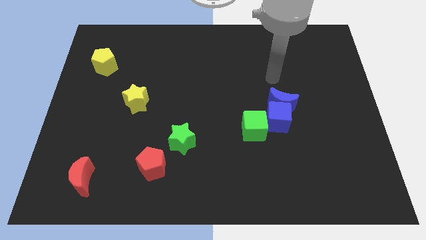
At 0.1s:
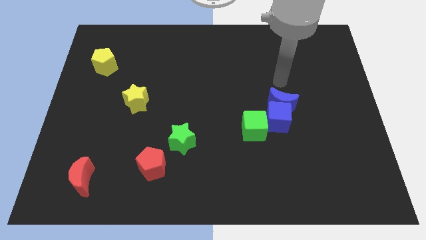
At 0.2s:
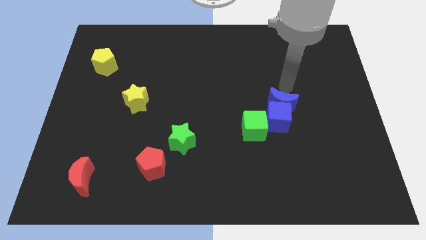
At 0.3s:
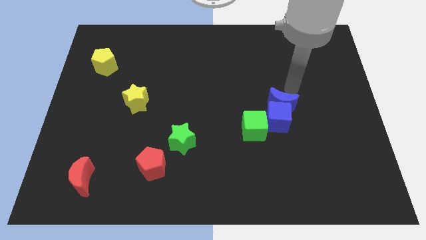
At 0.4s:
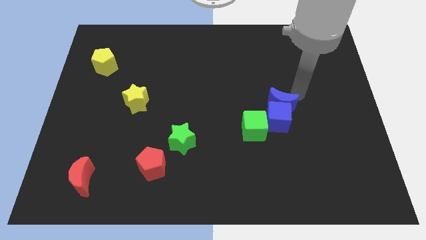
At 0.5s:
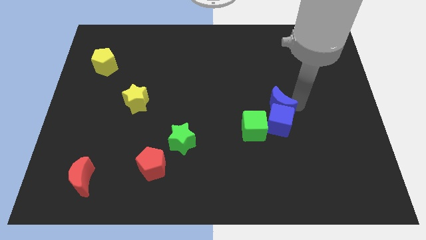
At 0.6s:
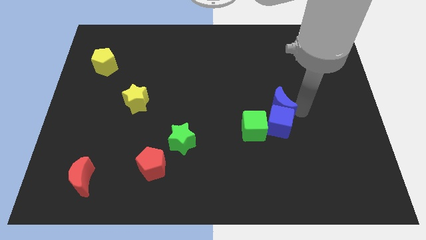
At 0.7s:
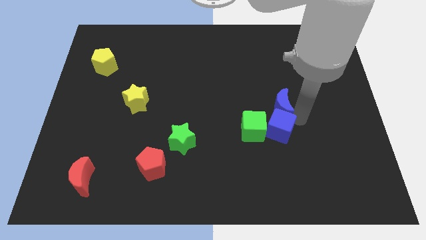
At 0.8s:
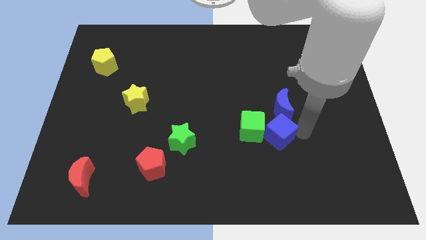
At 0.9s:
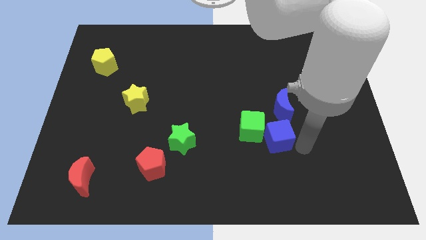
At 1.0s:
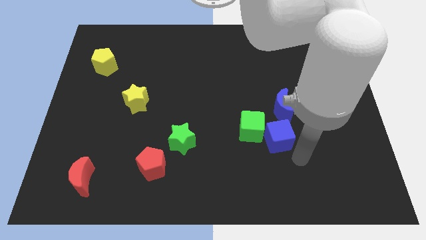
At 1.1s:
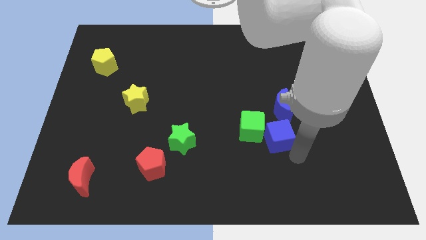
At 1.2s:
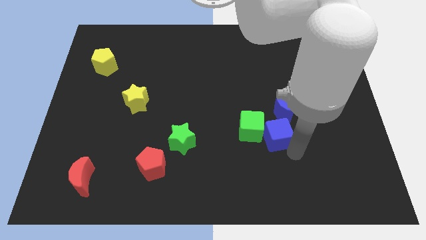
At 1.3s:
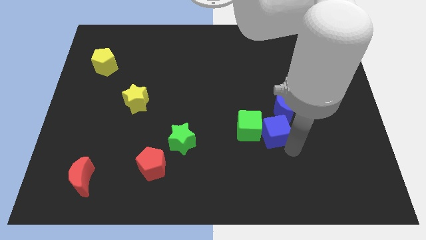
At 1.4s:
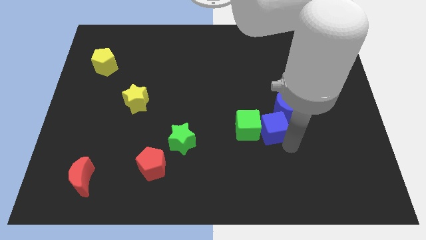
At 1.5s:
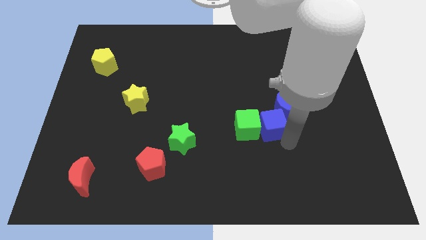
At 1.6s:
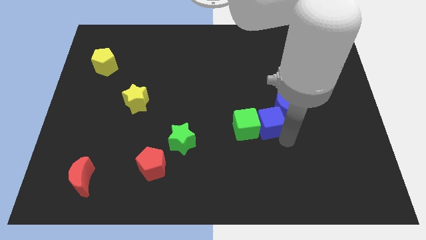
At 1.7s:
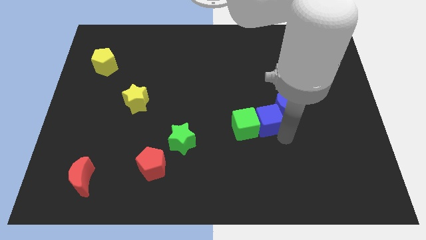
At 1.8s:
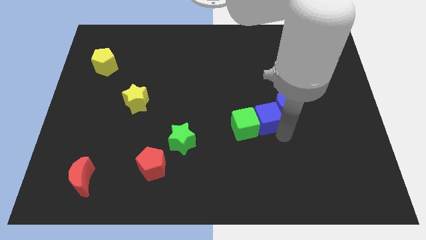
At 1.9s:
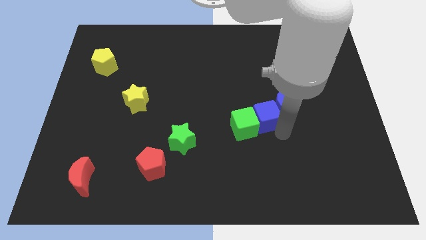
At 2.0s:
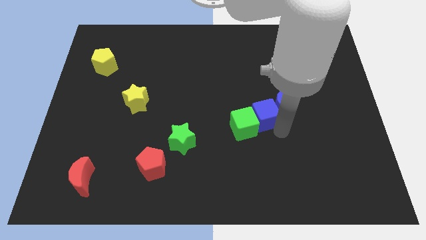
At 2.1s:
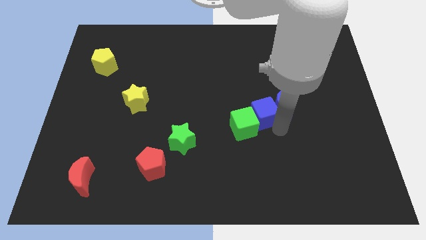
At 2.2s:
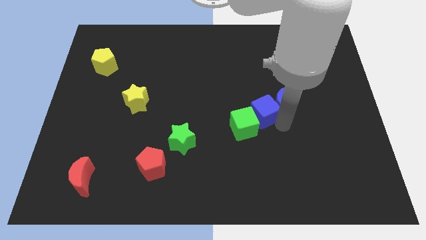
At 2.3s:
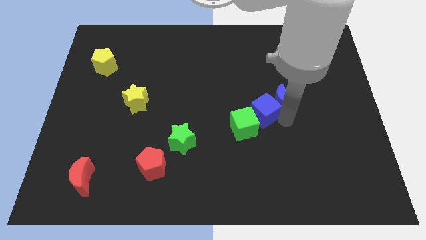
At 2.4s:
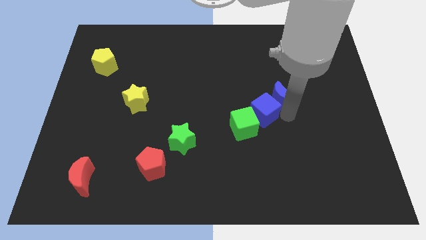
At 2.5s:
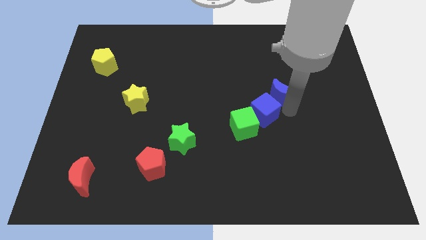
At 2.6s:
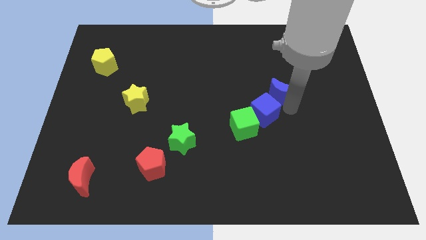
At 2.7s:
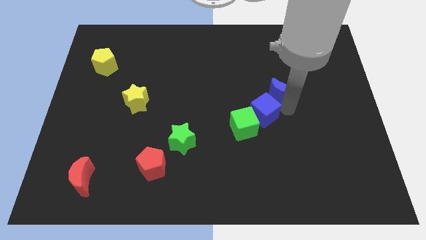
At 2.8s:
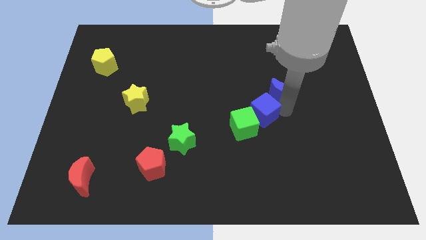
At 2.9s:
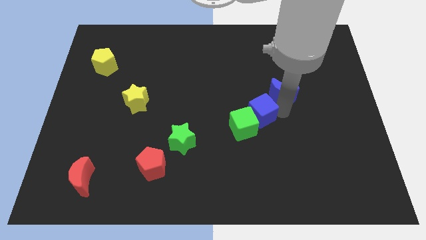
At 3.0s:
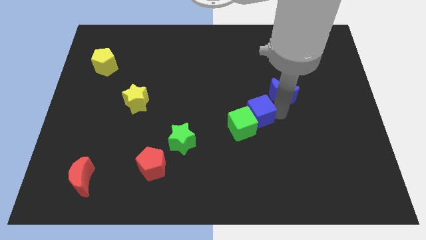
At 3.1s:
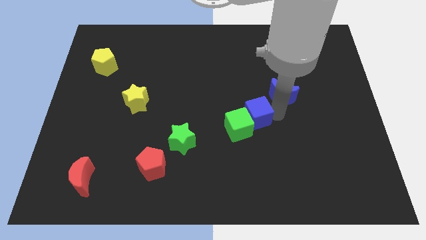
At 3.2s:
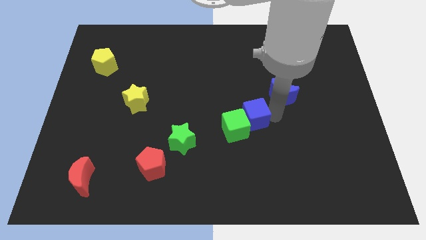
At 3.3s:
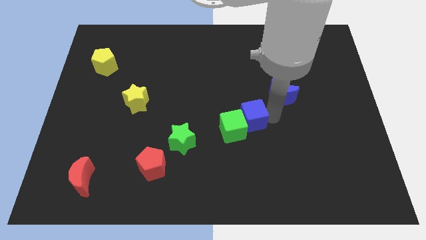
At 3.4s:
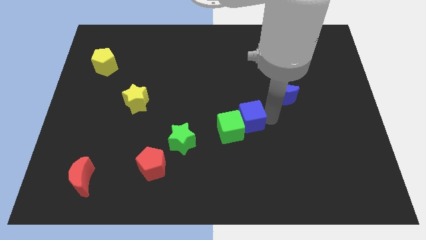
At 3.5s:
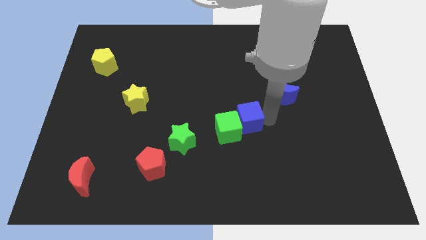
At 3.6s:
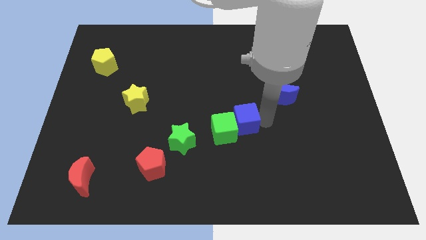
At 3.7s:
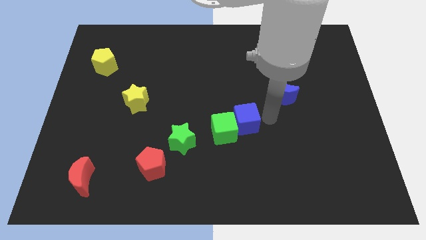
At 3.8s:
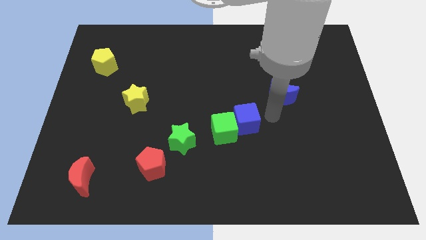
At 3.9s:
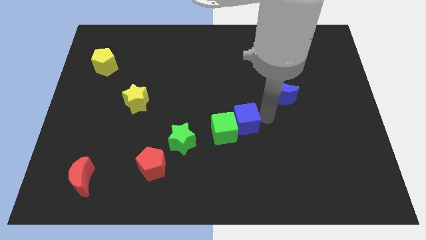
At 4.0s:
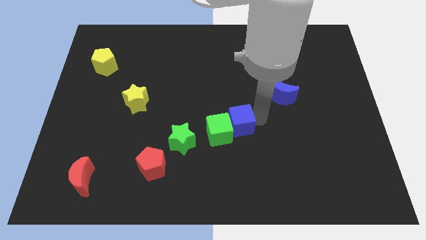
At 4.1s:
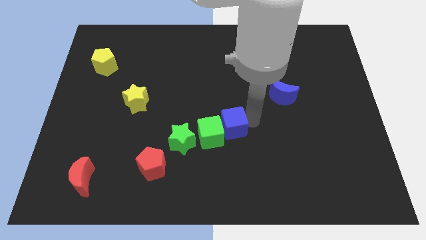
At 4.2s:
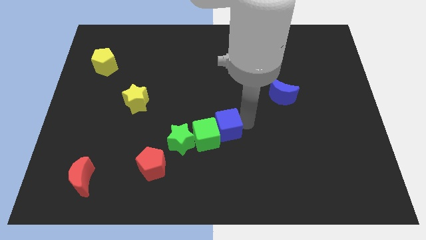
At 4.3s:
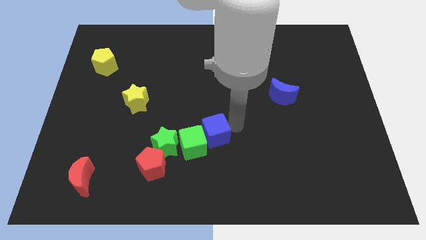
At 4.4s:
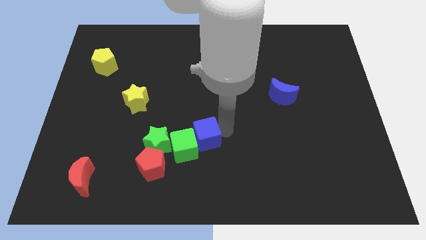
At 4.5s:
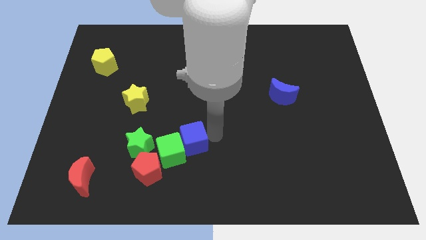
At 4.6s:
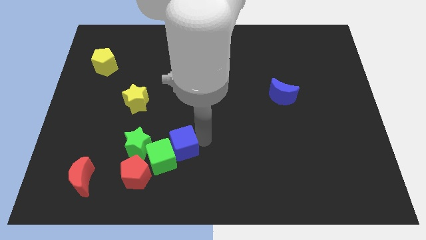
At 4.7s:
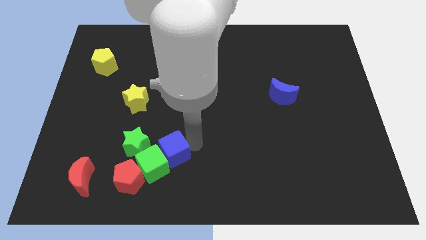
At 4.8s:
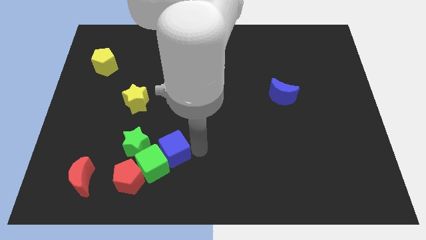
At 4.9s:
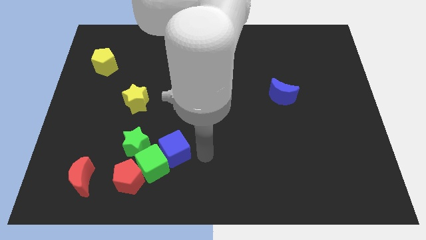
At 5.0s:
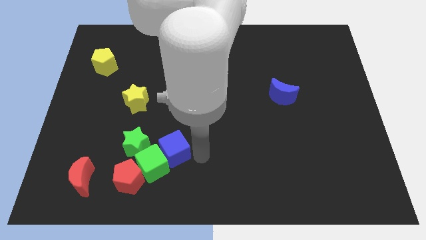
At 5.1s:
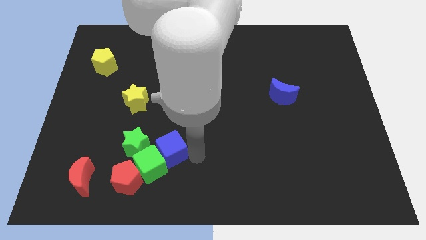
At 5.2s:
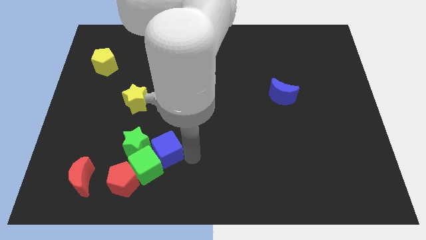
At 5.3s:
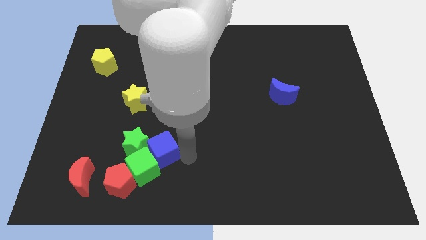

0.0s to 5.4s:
push the blue cube to the green star
